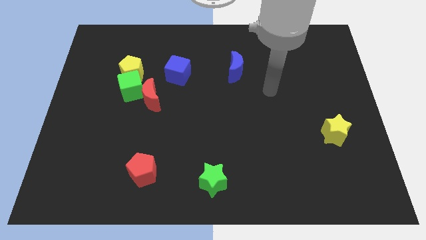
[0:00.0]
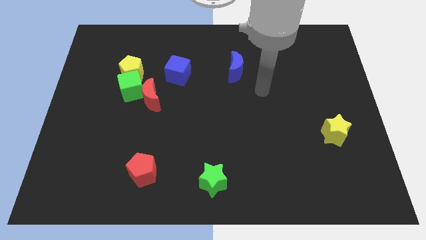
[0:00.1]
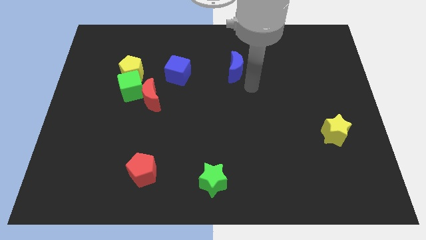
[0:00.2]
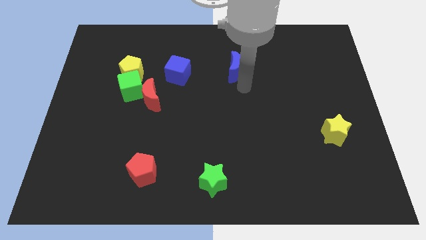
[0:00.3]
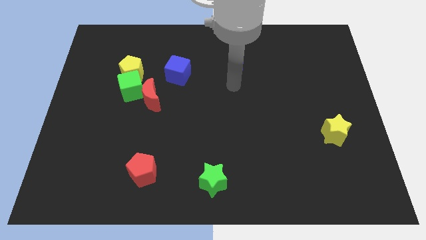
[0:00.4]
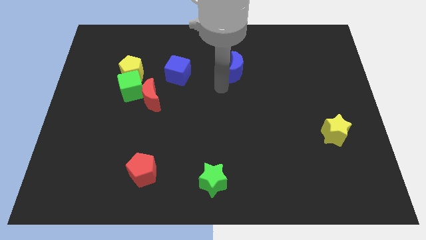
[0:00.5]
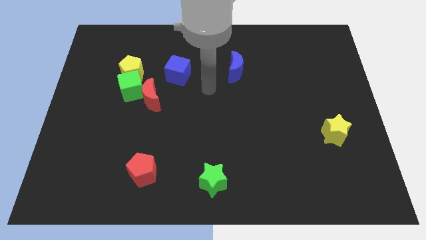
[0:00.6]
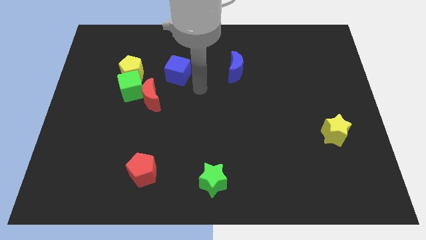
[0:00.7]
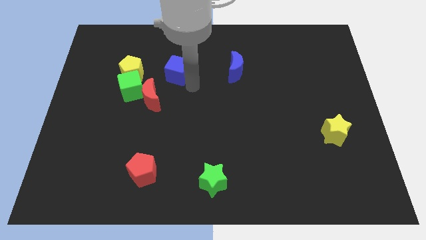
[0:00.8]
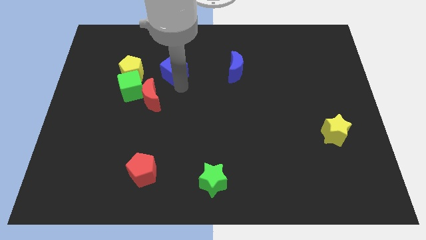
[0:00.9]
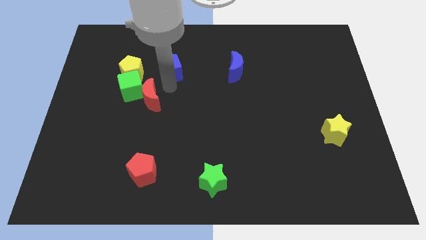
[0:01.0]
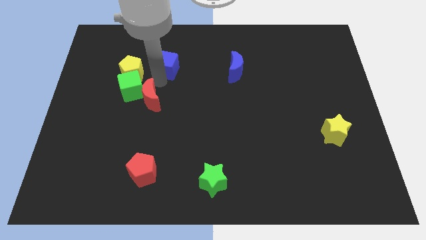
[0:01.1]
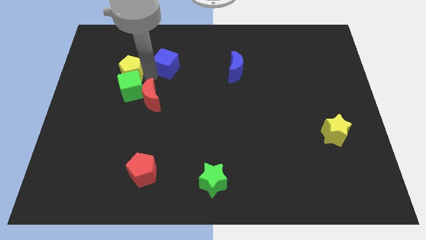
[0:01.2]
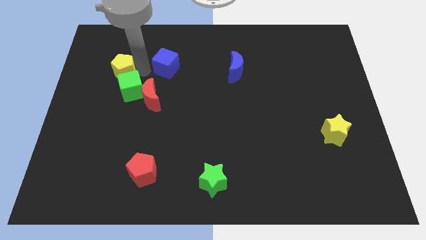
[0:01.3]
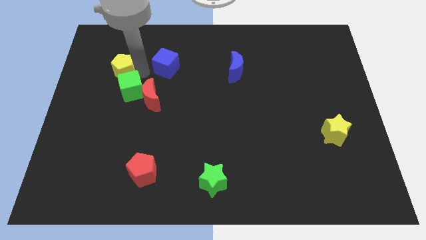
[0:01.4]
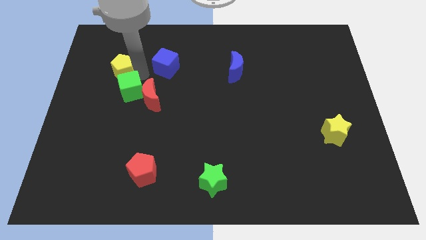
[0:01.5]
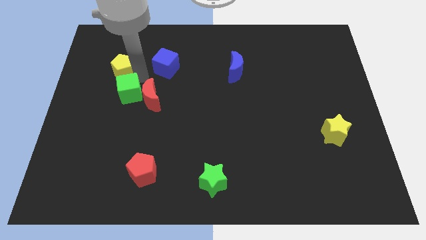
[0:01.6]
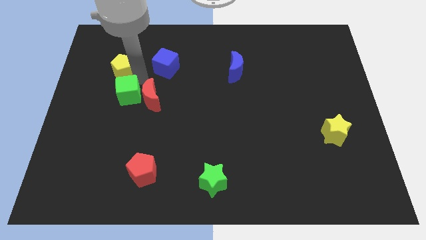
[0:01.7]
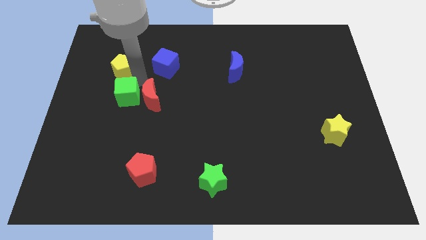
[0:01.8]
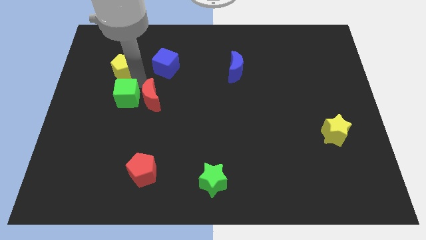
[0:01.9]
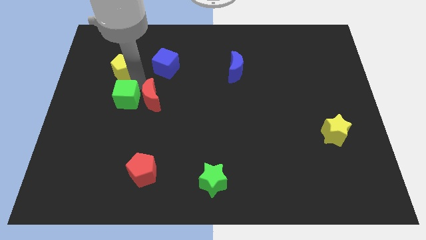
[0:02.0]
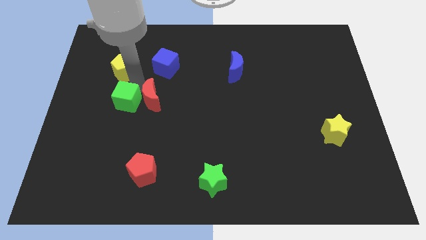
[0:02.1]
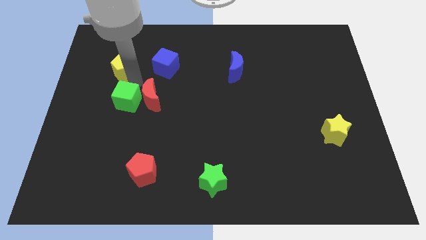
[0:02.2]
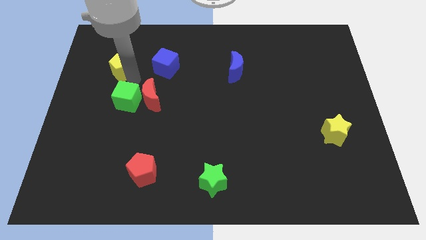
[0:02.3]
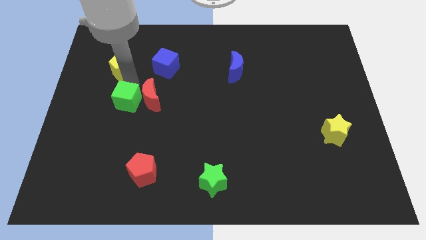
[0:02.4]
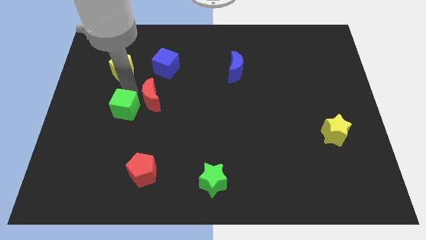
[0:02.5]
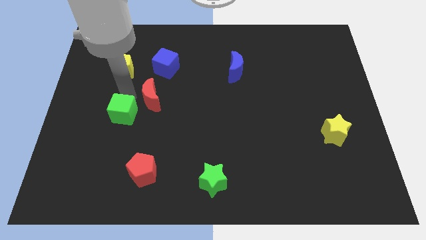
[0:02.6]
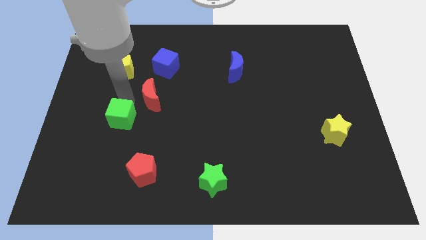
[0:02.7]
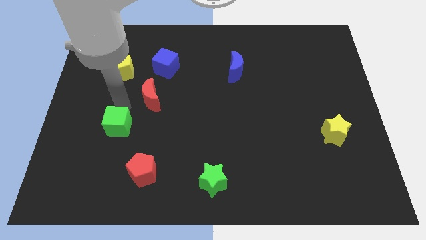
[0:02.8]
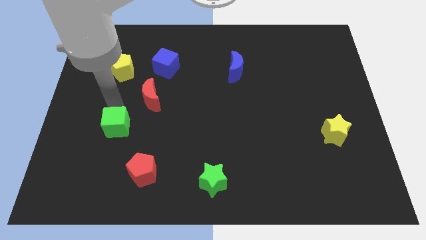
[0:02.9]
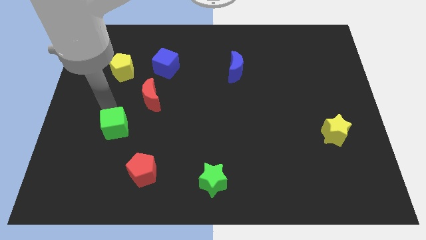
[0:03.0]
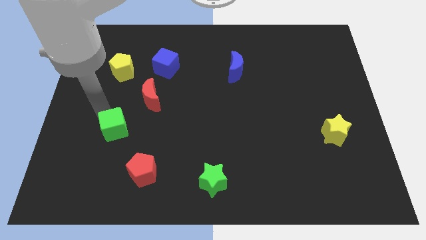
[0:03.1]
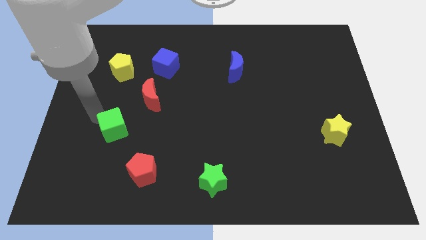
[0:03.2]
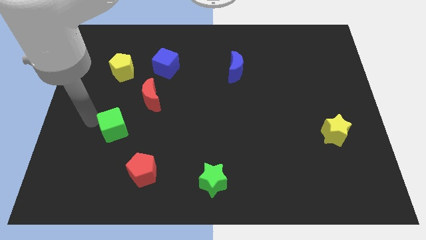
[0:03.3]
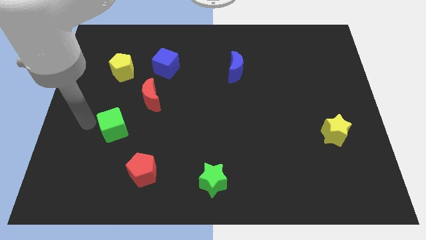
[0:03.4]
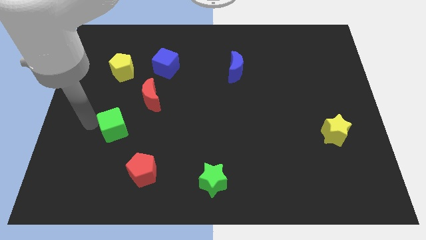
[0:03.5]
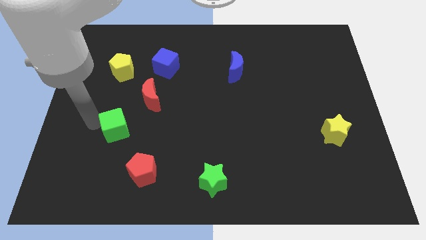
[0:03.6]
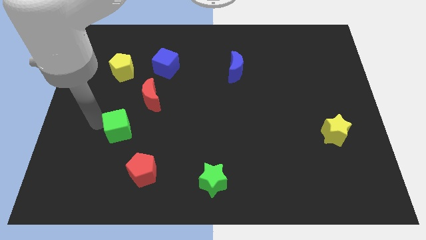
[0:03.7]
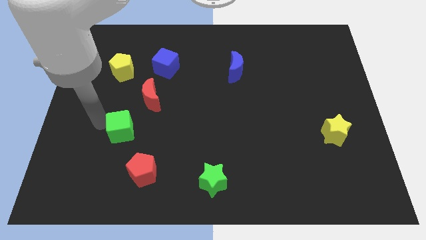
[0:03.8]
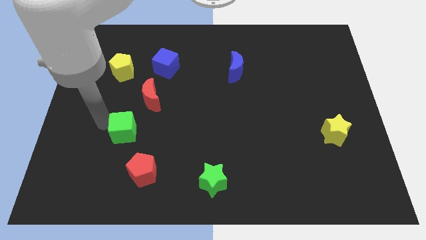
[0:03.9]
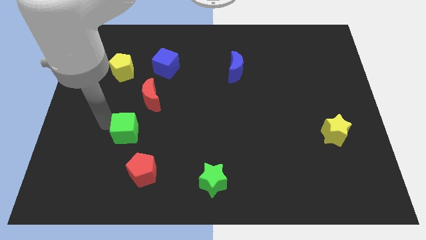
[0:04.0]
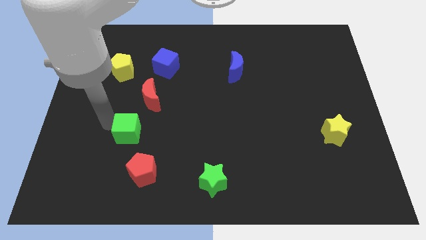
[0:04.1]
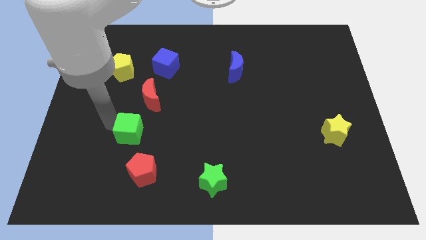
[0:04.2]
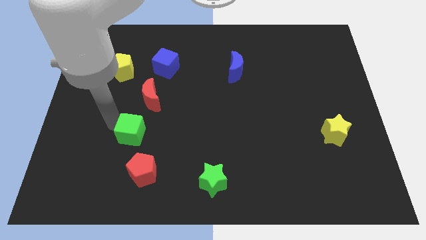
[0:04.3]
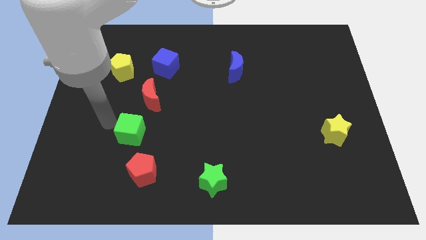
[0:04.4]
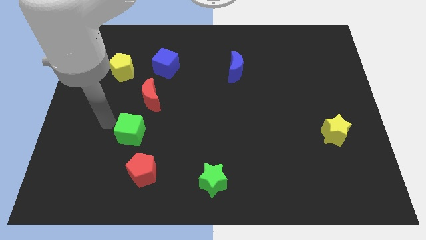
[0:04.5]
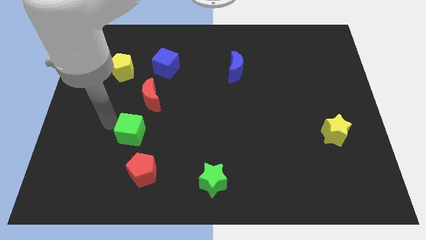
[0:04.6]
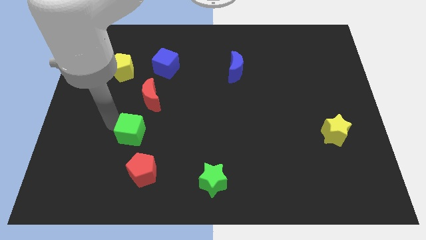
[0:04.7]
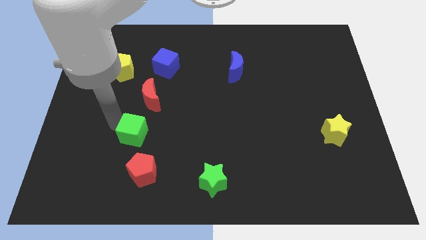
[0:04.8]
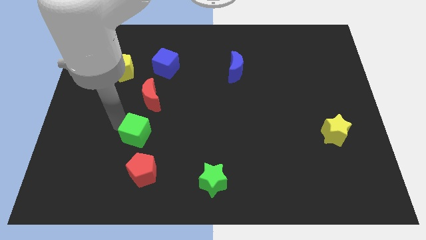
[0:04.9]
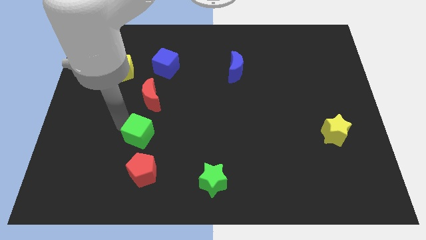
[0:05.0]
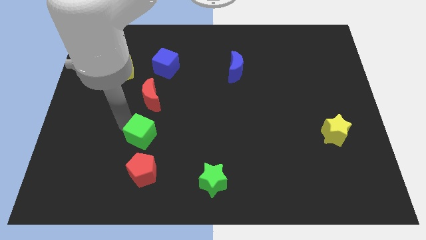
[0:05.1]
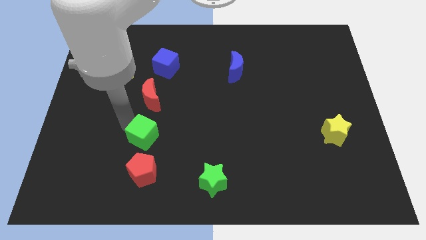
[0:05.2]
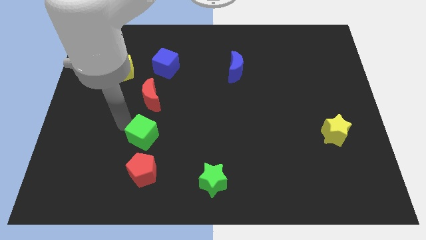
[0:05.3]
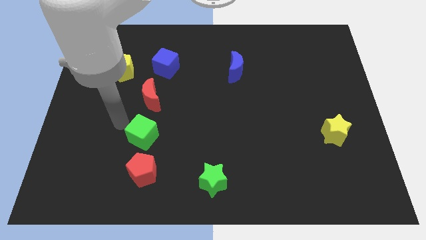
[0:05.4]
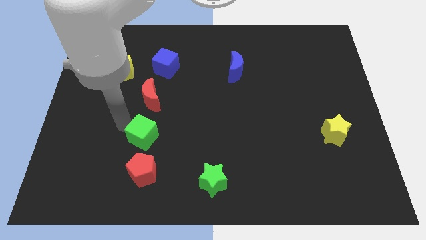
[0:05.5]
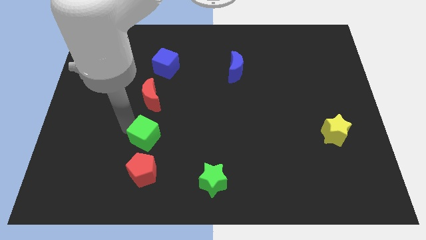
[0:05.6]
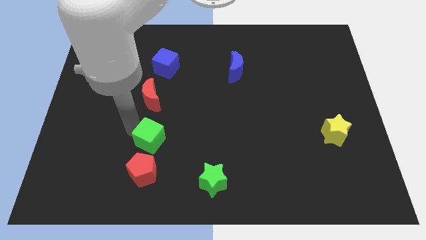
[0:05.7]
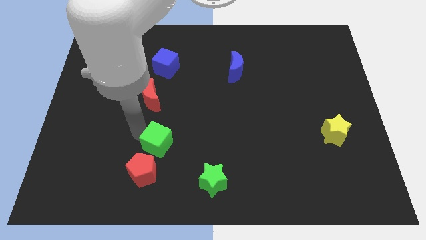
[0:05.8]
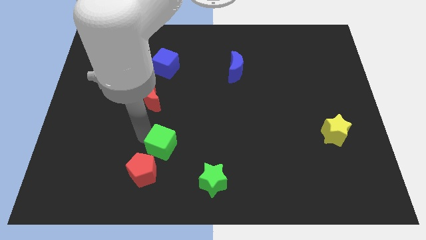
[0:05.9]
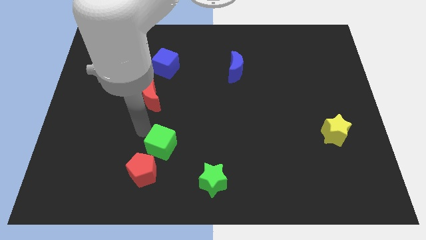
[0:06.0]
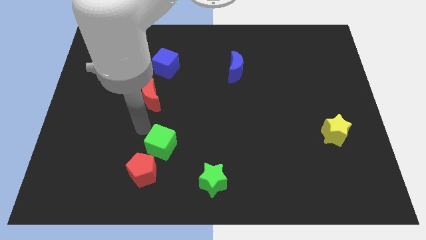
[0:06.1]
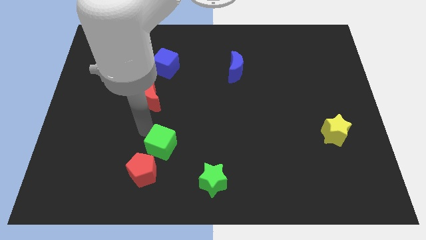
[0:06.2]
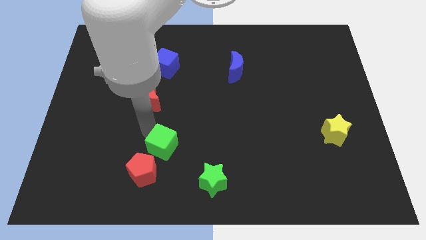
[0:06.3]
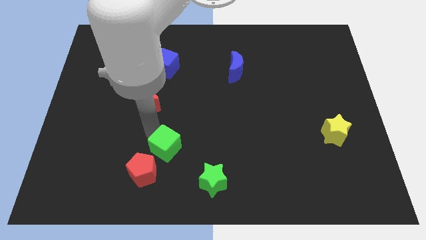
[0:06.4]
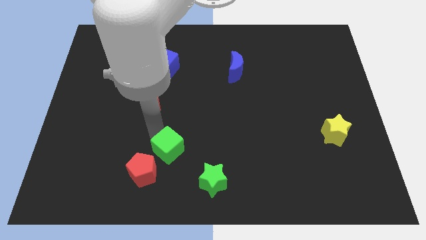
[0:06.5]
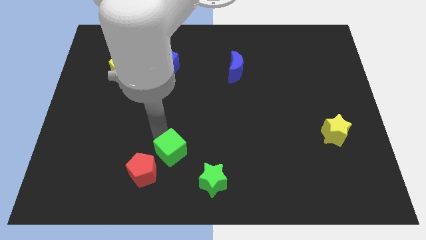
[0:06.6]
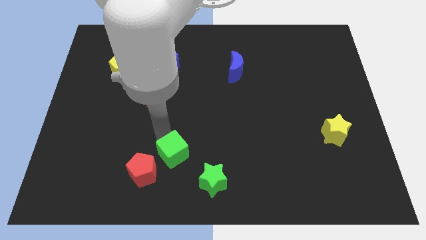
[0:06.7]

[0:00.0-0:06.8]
push the green cube right of the red pentagon
